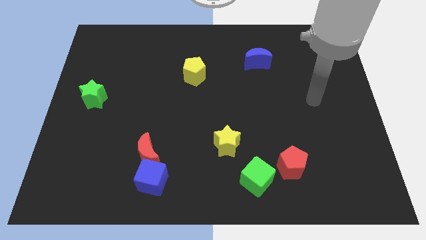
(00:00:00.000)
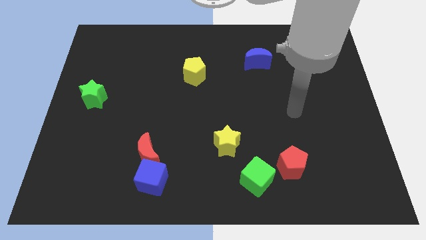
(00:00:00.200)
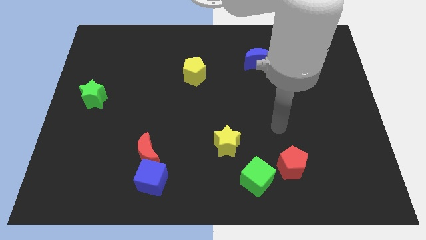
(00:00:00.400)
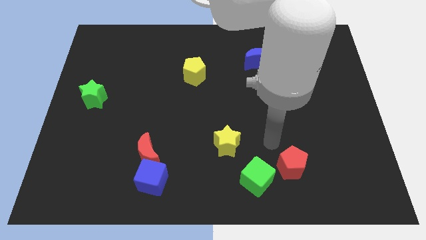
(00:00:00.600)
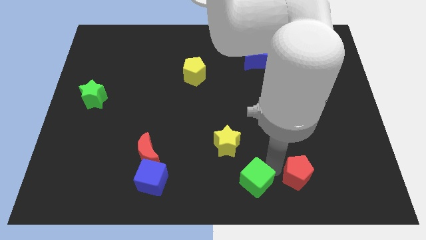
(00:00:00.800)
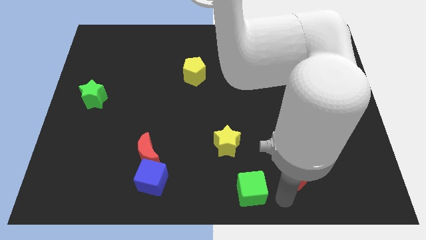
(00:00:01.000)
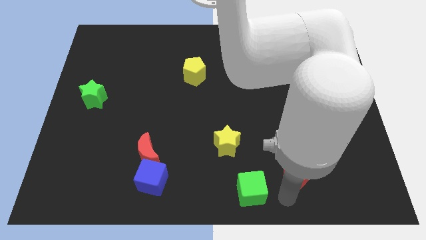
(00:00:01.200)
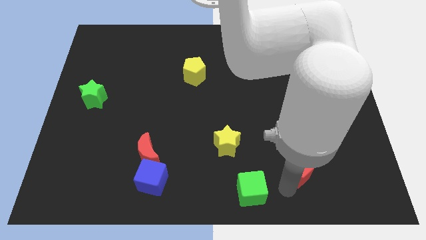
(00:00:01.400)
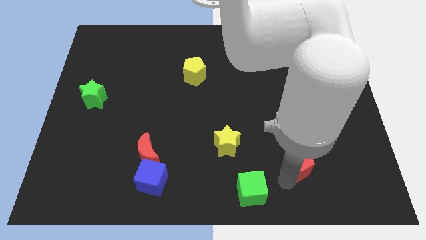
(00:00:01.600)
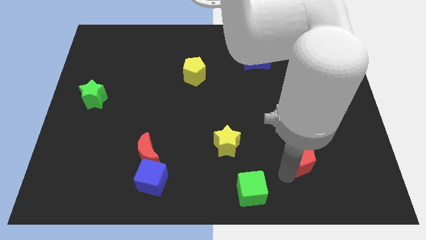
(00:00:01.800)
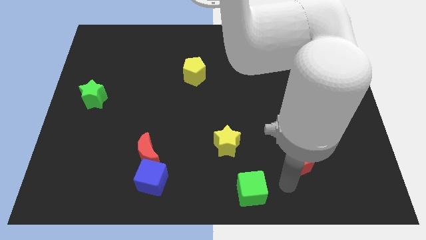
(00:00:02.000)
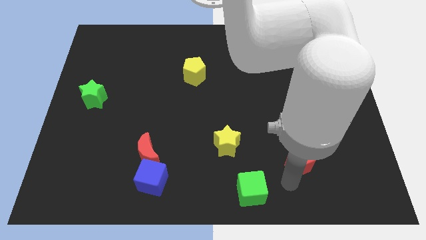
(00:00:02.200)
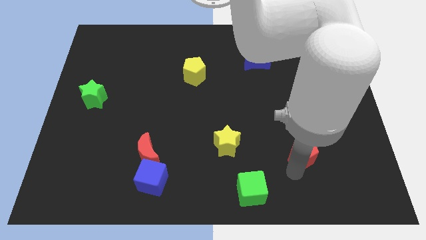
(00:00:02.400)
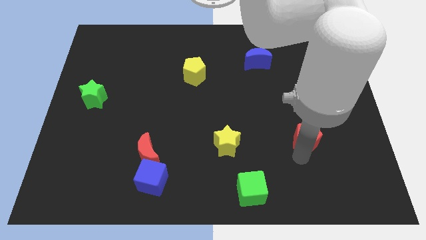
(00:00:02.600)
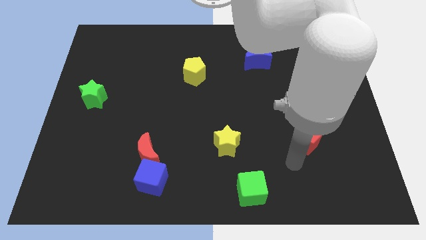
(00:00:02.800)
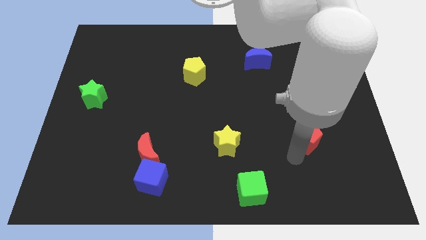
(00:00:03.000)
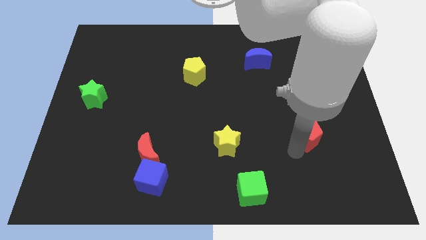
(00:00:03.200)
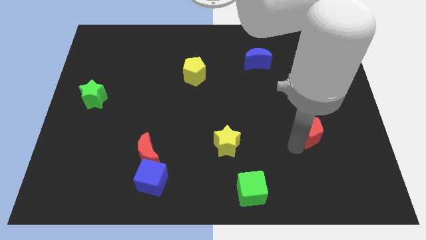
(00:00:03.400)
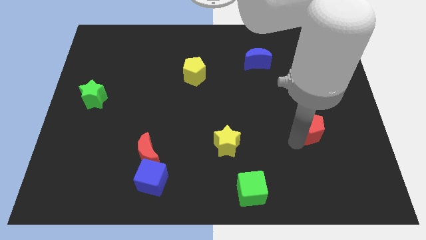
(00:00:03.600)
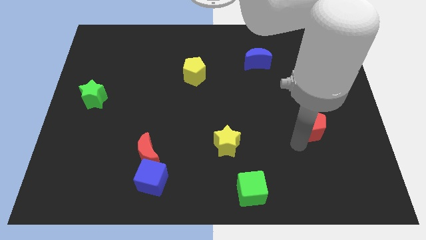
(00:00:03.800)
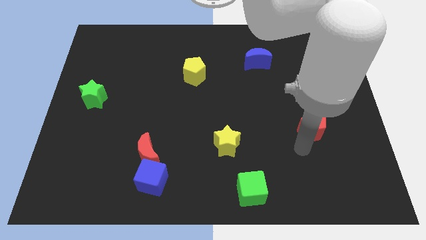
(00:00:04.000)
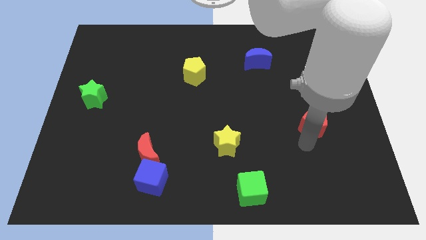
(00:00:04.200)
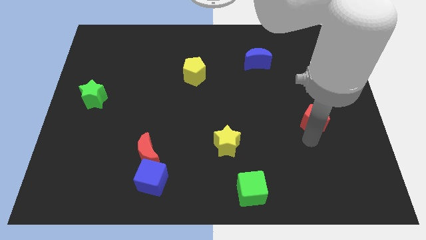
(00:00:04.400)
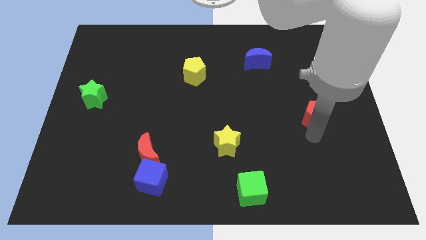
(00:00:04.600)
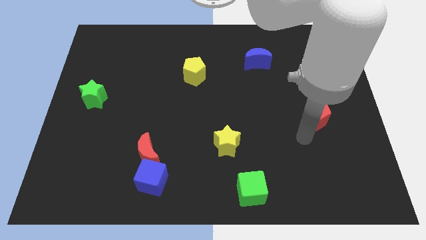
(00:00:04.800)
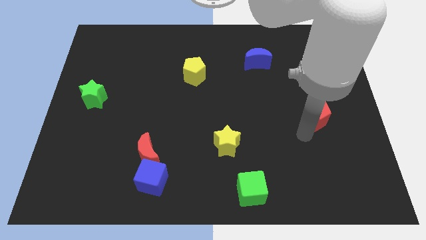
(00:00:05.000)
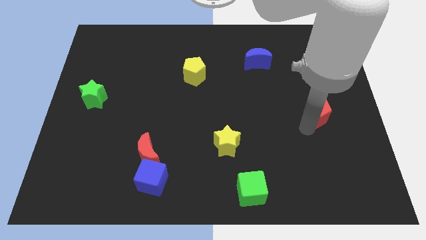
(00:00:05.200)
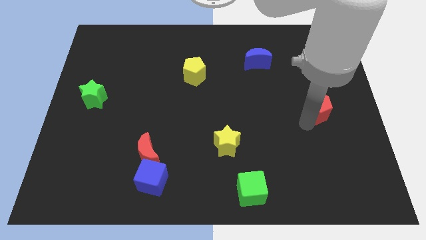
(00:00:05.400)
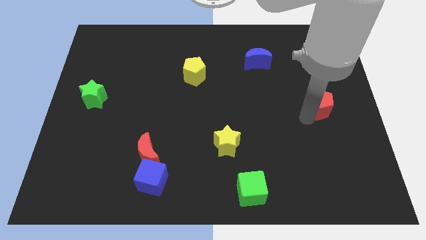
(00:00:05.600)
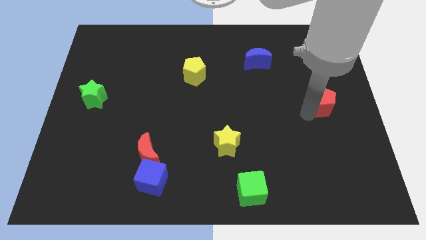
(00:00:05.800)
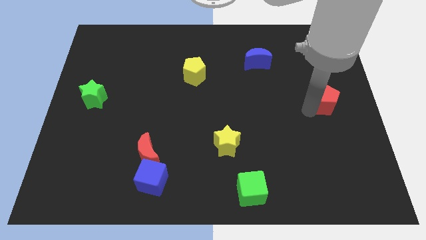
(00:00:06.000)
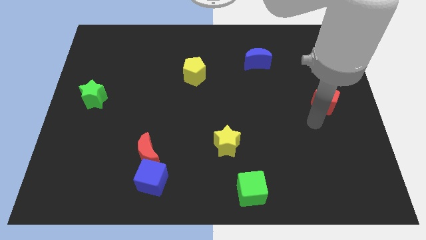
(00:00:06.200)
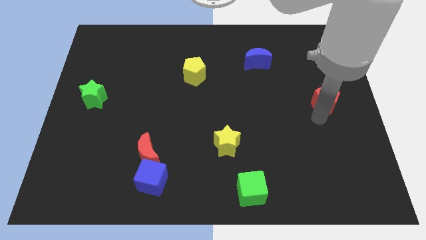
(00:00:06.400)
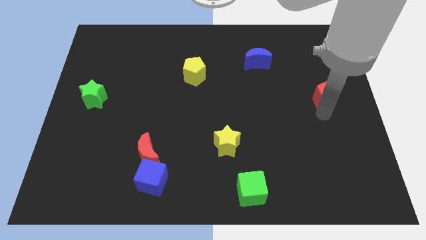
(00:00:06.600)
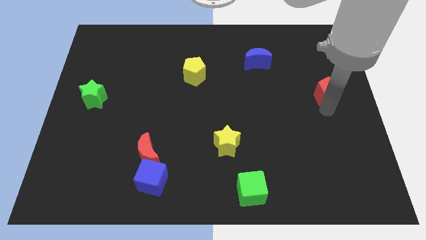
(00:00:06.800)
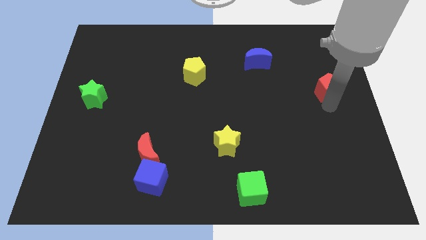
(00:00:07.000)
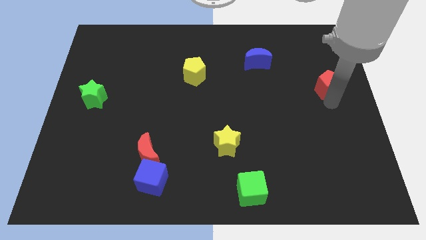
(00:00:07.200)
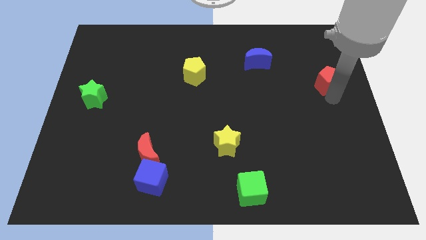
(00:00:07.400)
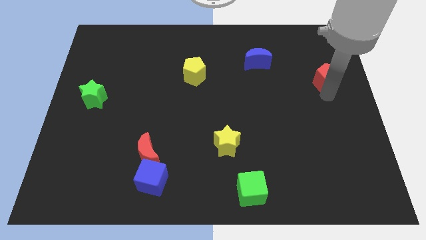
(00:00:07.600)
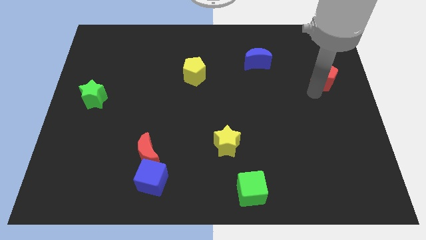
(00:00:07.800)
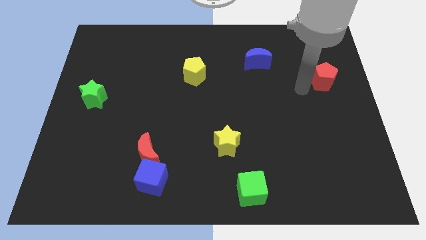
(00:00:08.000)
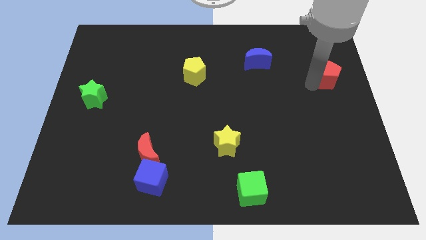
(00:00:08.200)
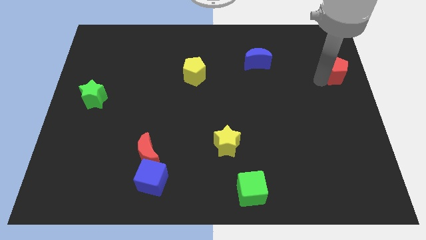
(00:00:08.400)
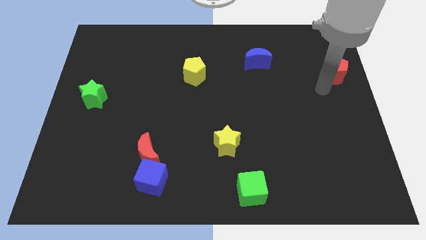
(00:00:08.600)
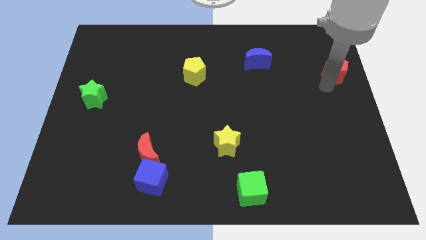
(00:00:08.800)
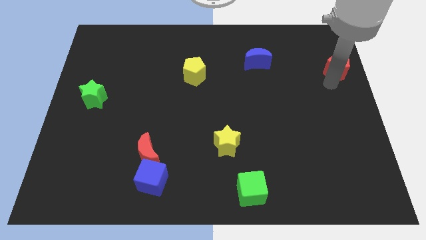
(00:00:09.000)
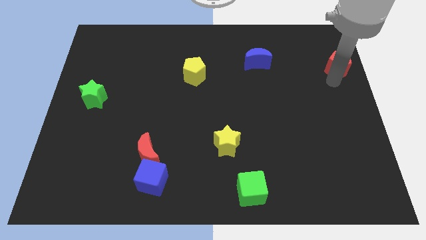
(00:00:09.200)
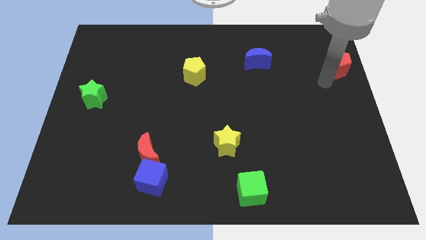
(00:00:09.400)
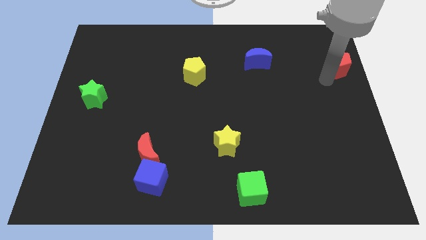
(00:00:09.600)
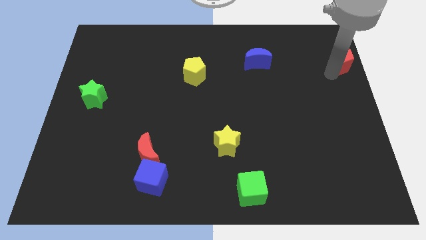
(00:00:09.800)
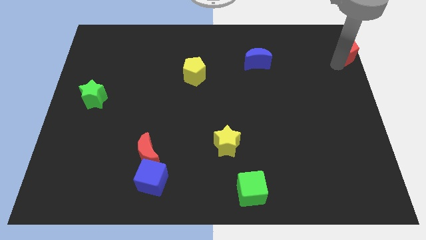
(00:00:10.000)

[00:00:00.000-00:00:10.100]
push the red pentagon to the upper right corner

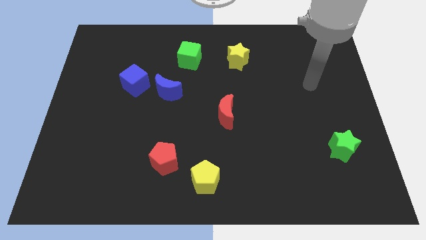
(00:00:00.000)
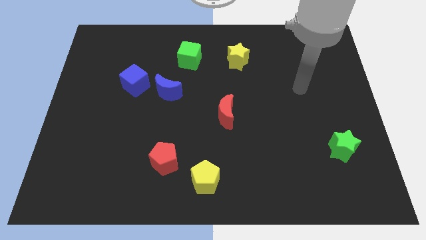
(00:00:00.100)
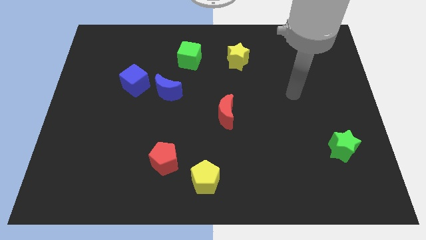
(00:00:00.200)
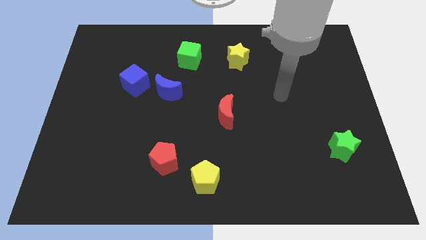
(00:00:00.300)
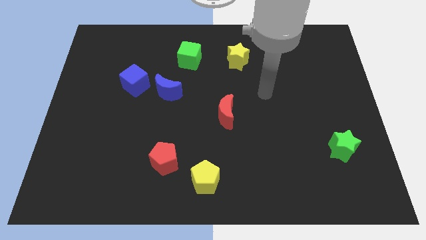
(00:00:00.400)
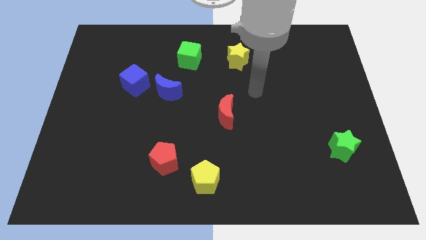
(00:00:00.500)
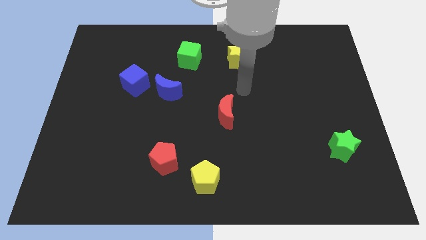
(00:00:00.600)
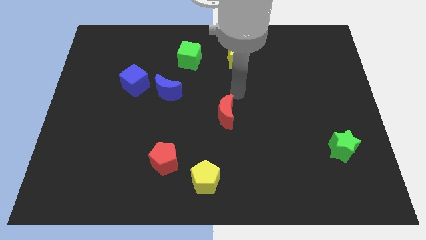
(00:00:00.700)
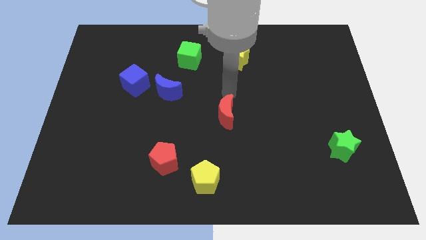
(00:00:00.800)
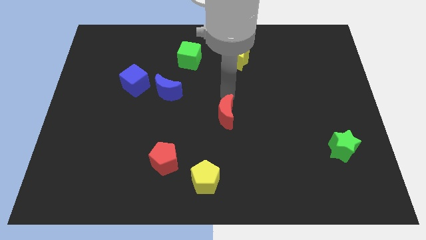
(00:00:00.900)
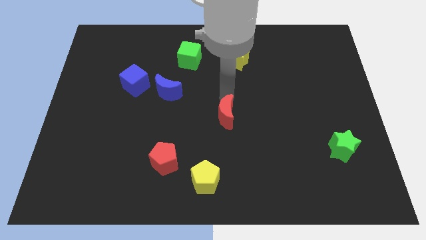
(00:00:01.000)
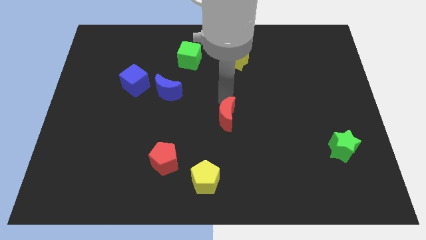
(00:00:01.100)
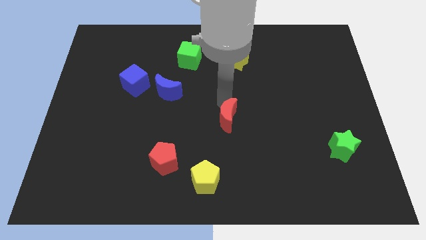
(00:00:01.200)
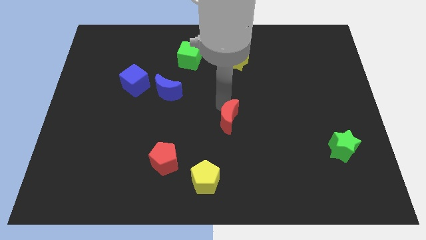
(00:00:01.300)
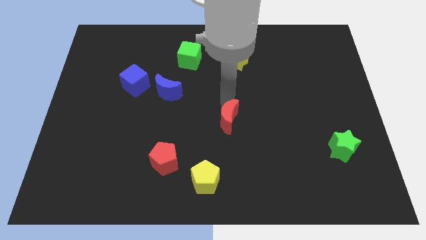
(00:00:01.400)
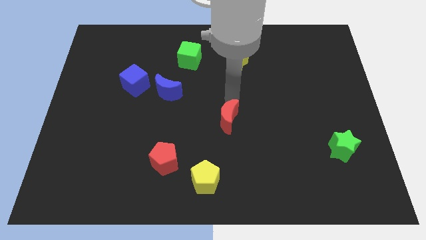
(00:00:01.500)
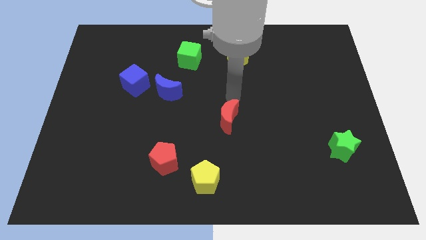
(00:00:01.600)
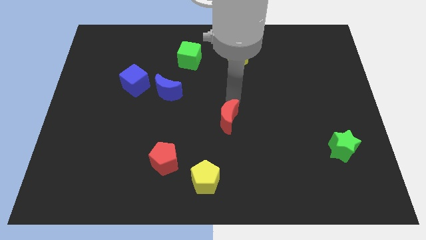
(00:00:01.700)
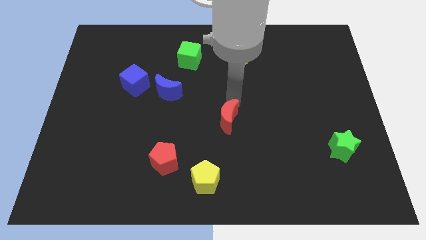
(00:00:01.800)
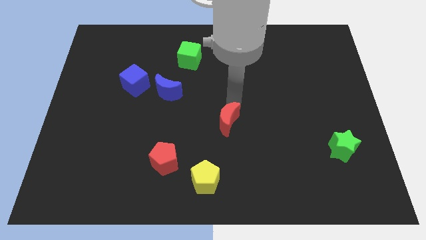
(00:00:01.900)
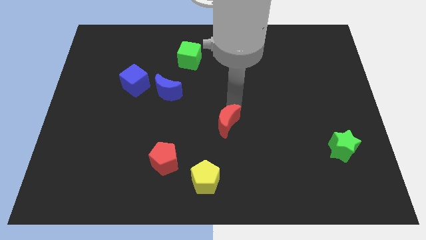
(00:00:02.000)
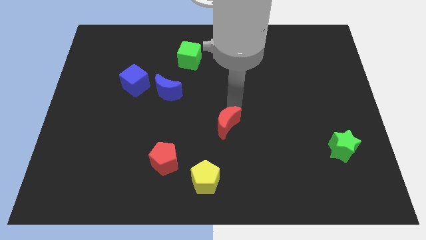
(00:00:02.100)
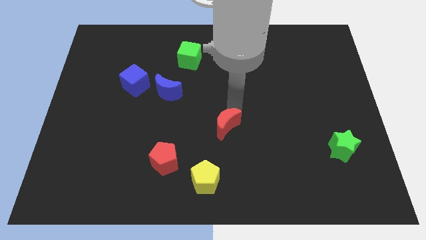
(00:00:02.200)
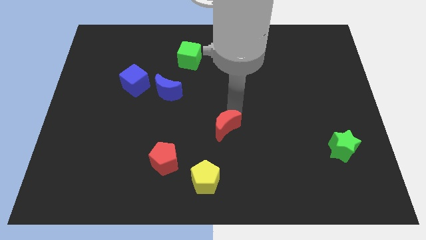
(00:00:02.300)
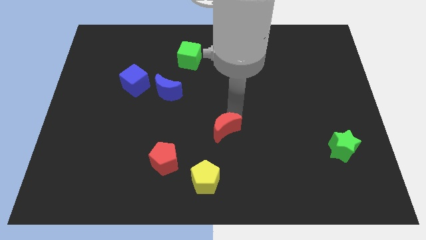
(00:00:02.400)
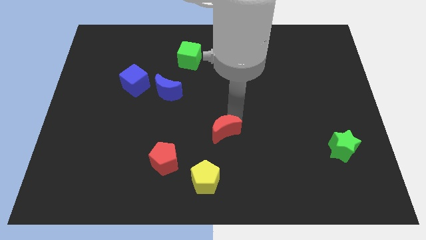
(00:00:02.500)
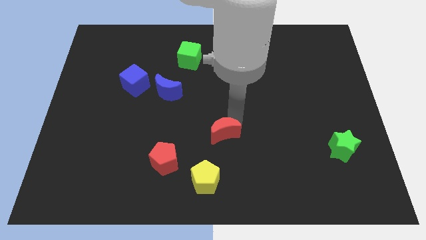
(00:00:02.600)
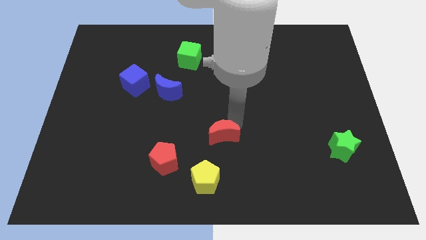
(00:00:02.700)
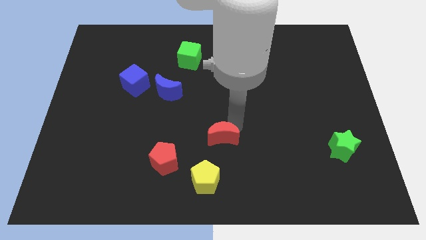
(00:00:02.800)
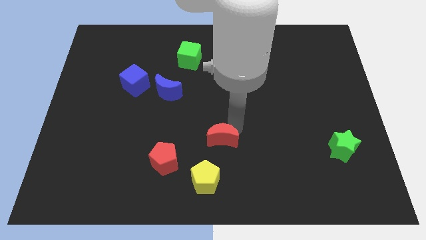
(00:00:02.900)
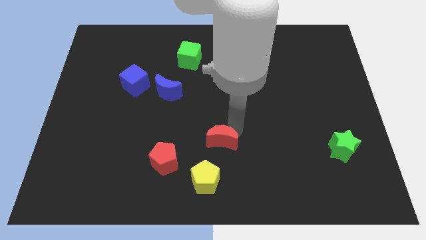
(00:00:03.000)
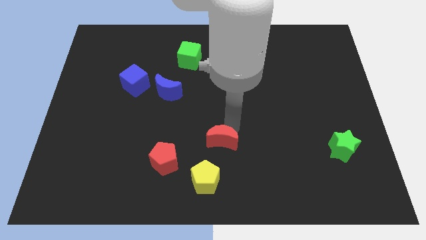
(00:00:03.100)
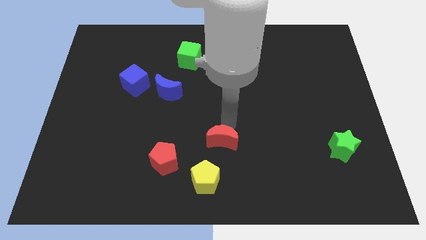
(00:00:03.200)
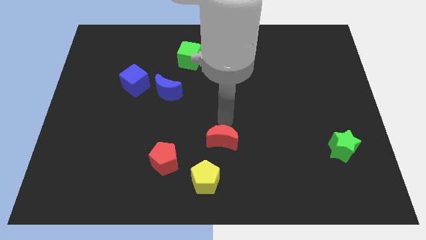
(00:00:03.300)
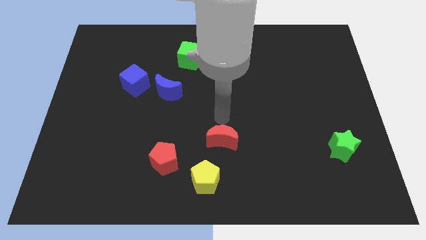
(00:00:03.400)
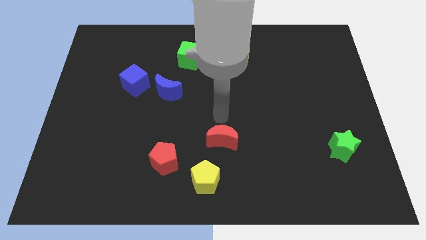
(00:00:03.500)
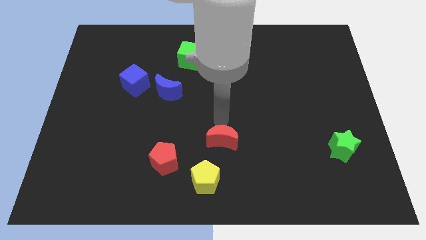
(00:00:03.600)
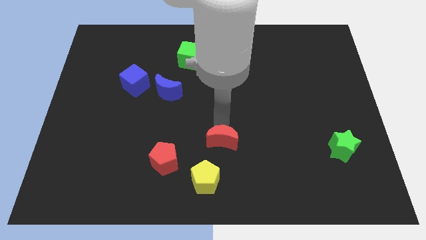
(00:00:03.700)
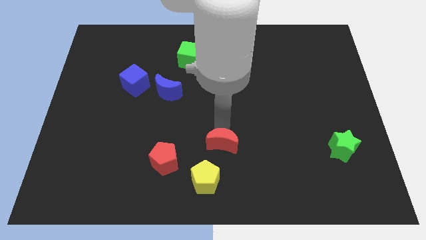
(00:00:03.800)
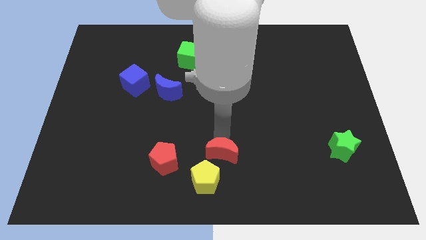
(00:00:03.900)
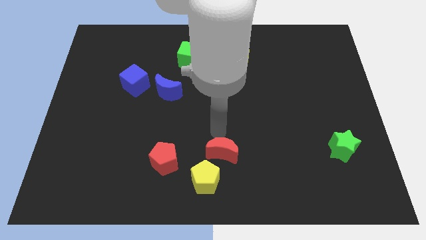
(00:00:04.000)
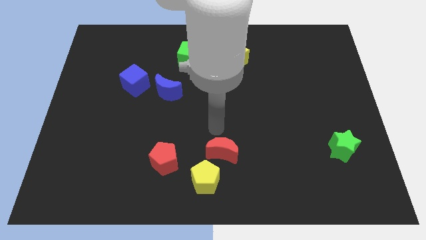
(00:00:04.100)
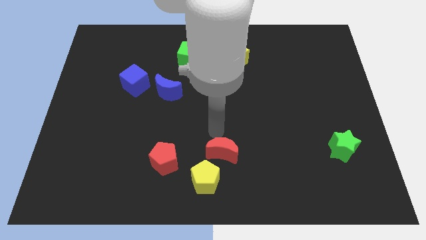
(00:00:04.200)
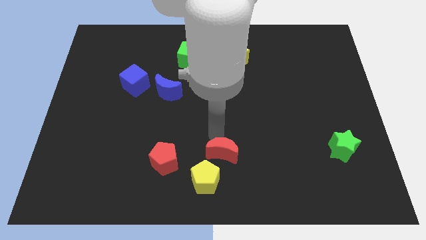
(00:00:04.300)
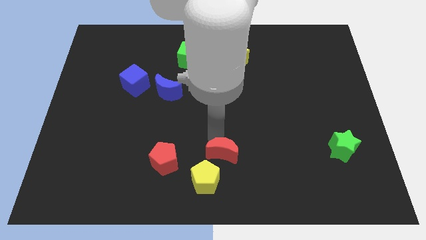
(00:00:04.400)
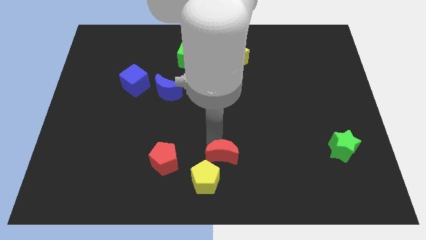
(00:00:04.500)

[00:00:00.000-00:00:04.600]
slide the red moon to the bottom side
